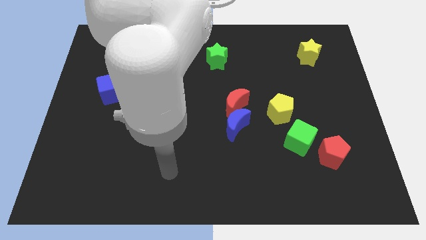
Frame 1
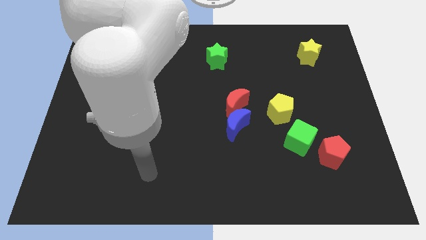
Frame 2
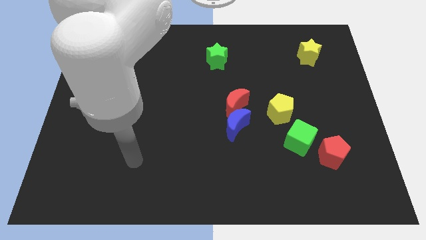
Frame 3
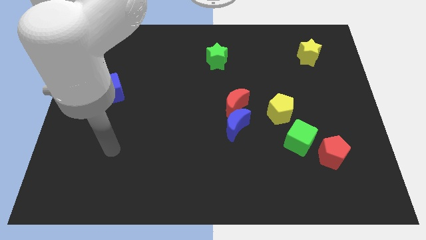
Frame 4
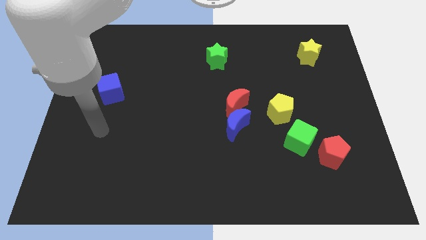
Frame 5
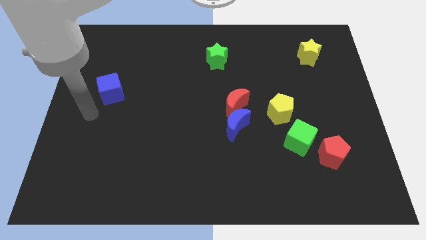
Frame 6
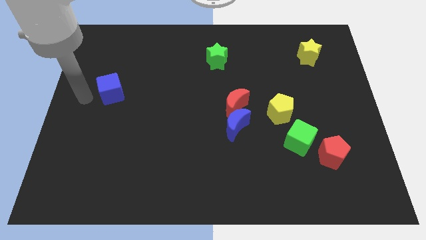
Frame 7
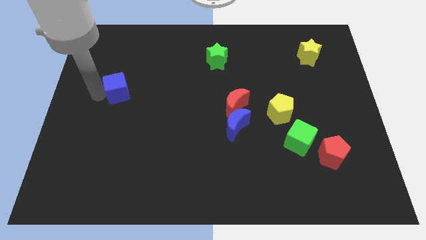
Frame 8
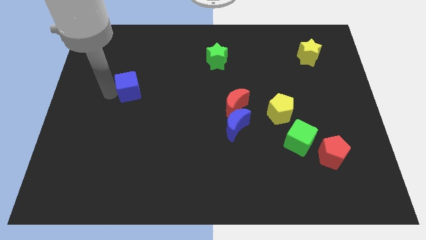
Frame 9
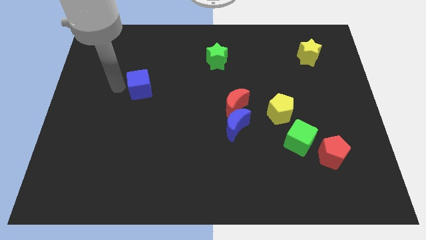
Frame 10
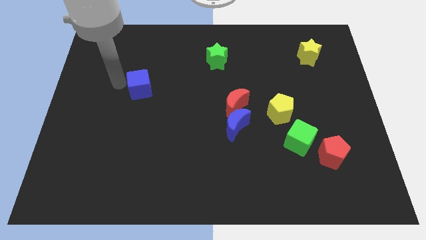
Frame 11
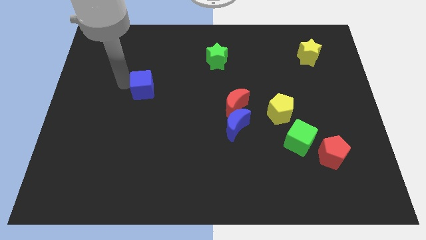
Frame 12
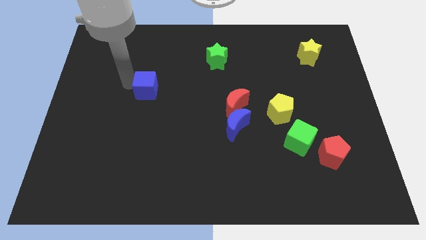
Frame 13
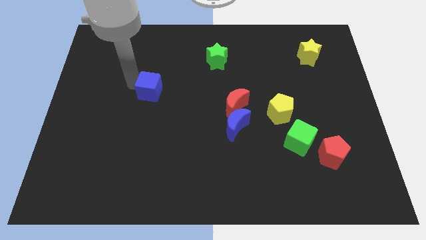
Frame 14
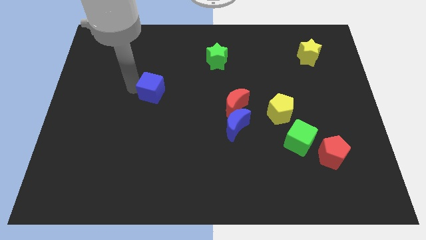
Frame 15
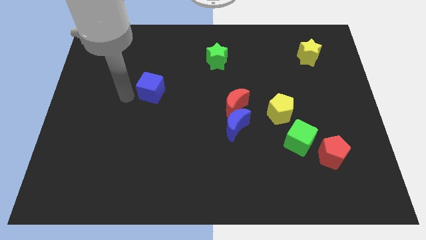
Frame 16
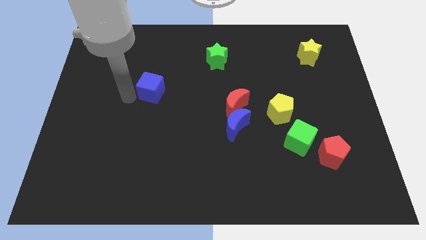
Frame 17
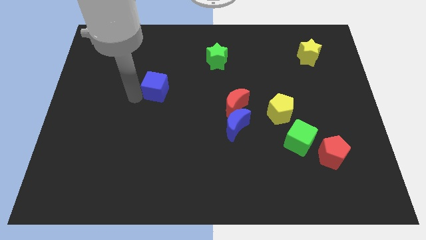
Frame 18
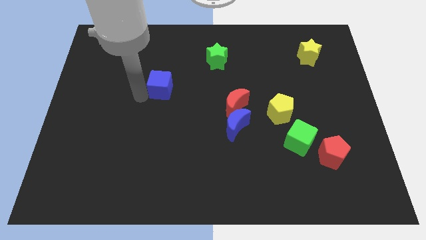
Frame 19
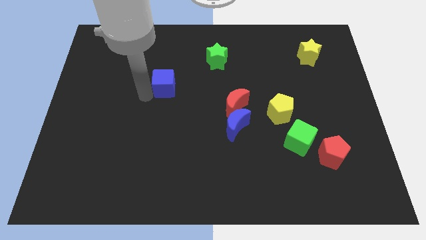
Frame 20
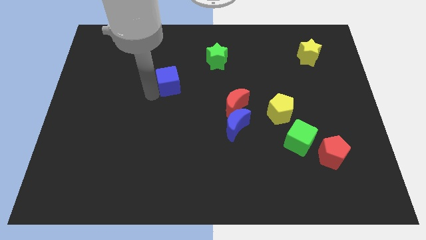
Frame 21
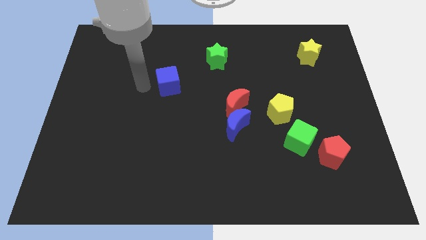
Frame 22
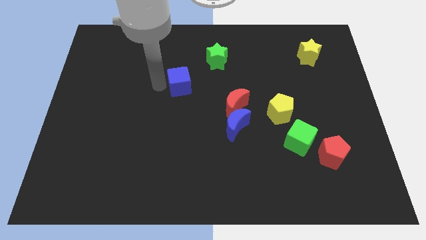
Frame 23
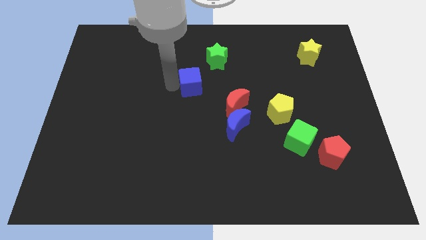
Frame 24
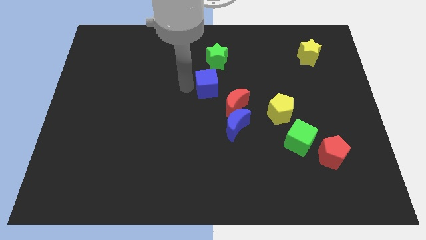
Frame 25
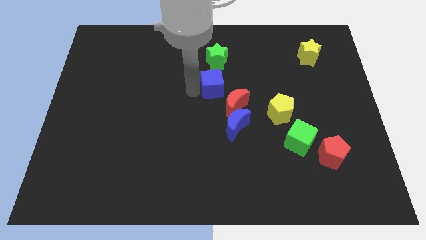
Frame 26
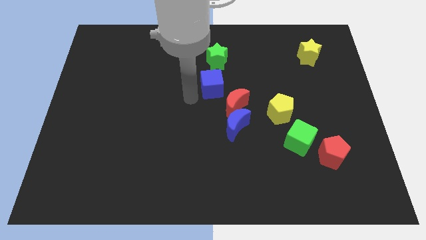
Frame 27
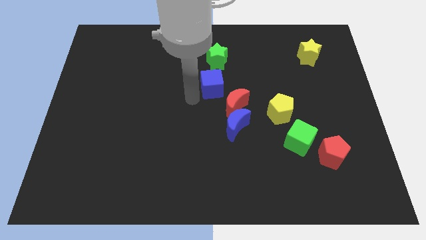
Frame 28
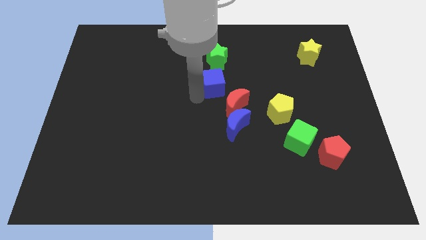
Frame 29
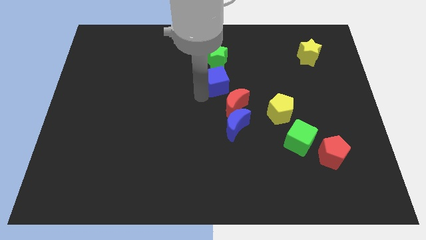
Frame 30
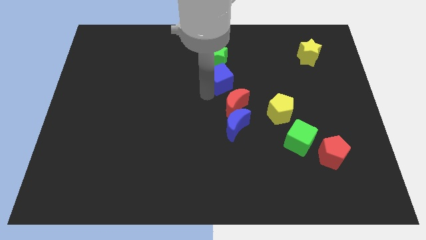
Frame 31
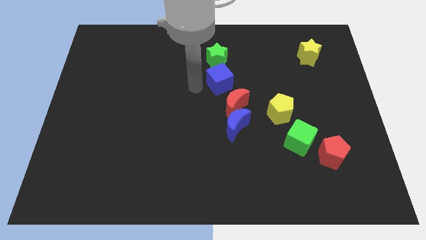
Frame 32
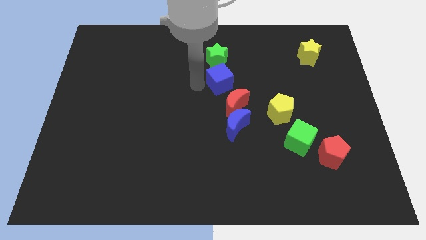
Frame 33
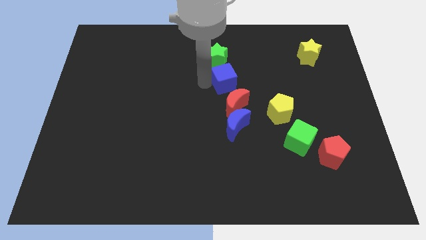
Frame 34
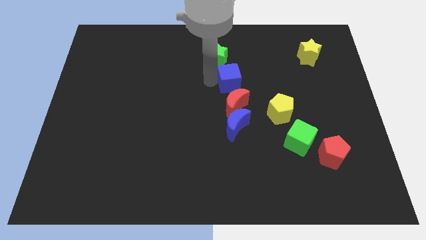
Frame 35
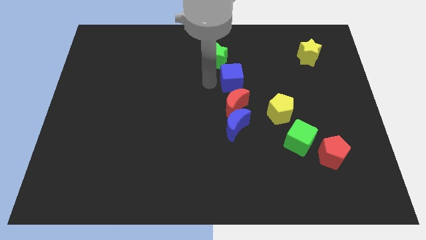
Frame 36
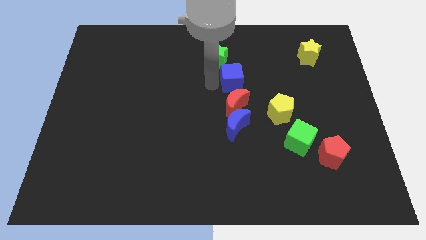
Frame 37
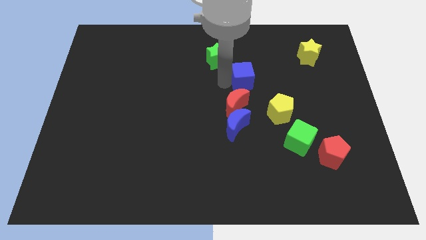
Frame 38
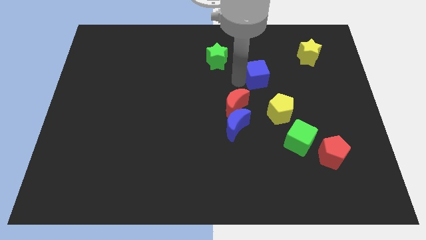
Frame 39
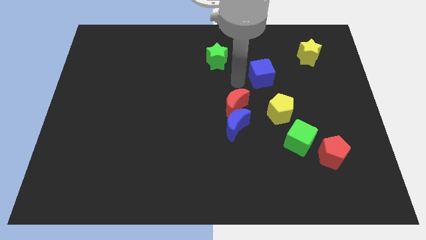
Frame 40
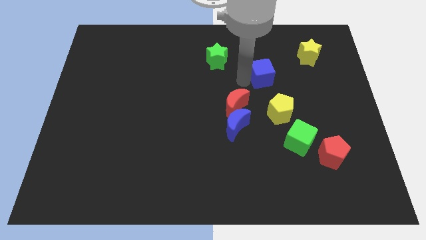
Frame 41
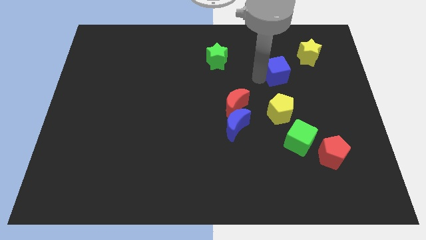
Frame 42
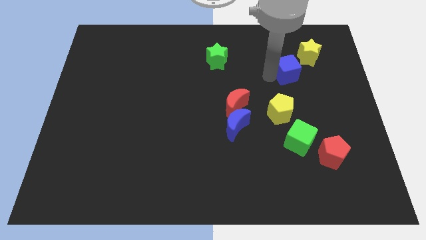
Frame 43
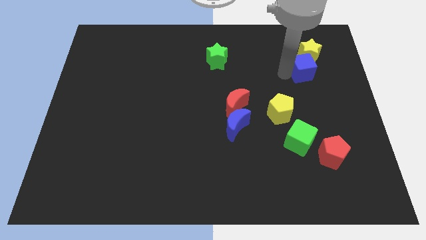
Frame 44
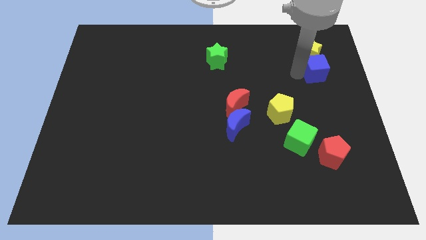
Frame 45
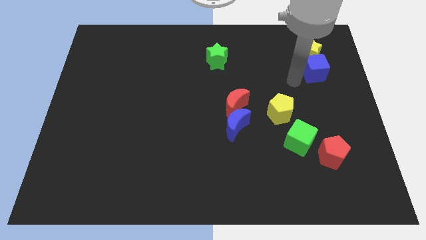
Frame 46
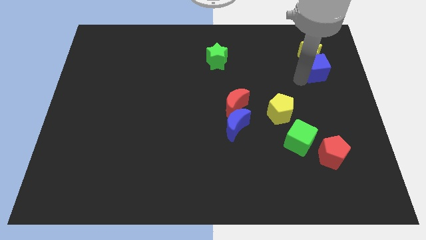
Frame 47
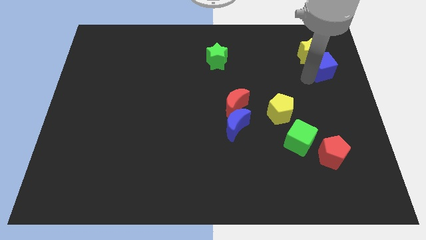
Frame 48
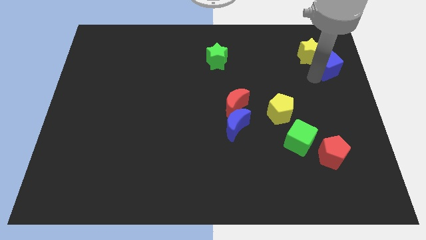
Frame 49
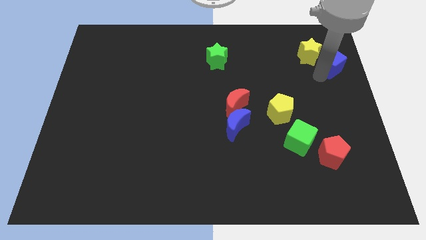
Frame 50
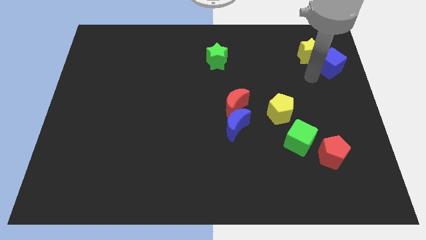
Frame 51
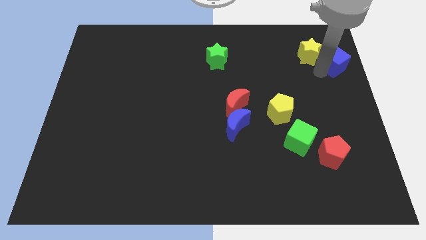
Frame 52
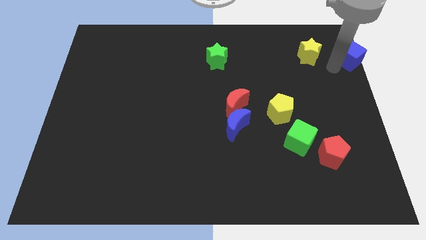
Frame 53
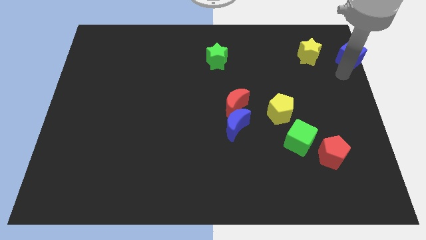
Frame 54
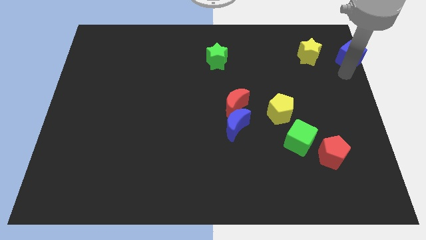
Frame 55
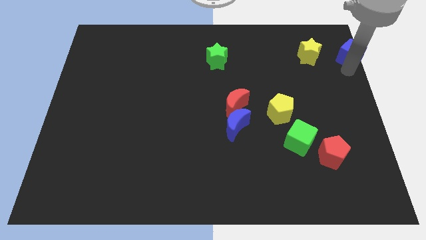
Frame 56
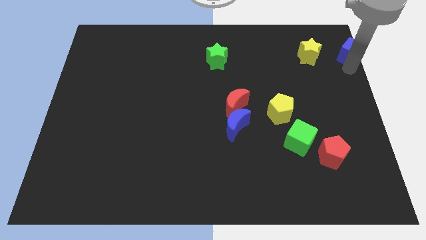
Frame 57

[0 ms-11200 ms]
put the blue cube to the top right corner

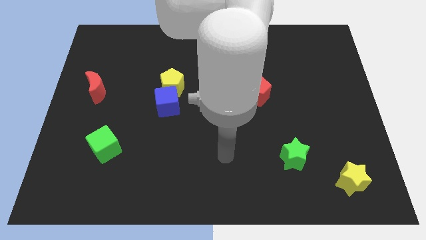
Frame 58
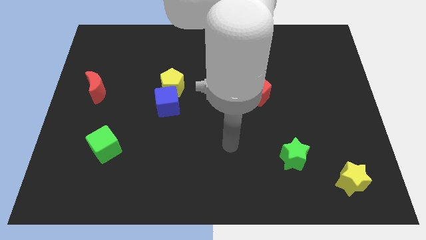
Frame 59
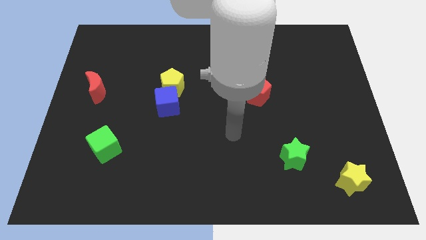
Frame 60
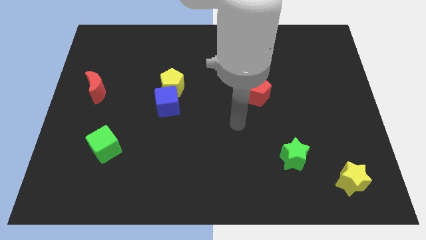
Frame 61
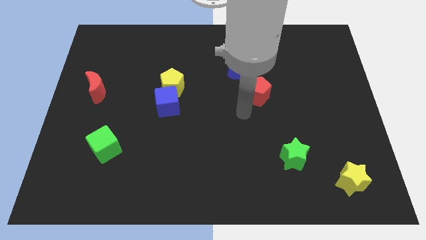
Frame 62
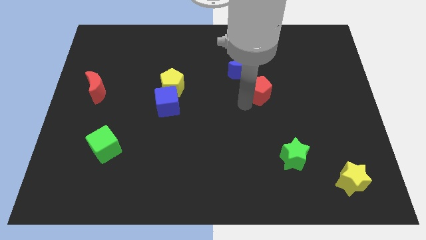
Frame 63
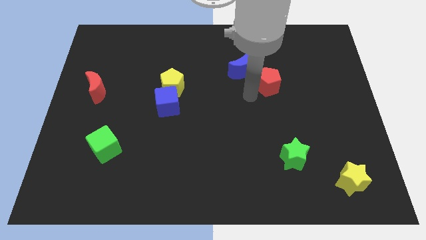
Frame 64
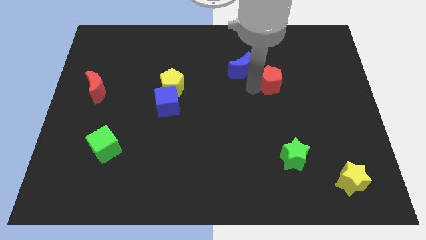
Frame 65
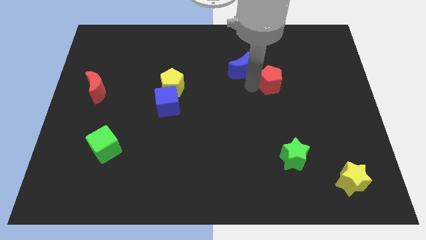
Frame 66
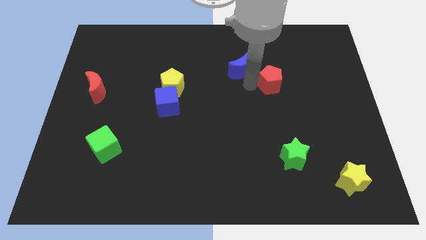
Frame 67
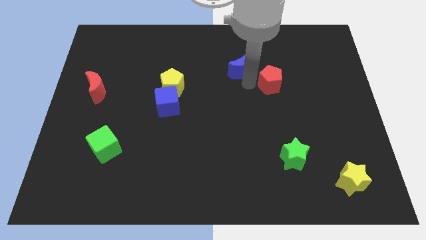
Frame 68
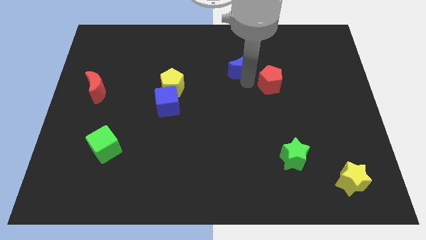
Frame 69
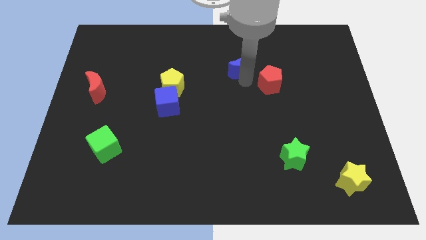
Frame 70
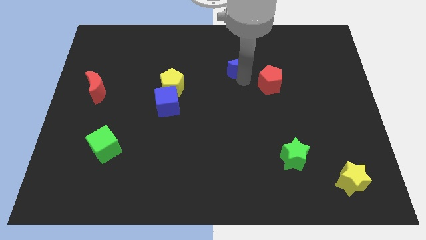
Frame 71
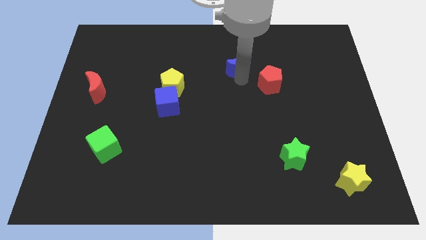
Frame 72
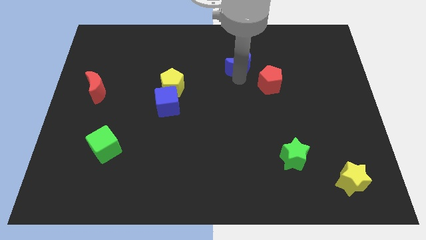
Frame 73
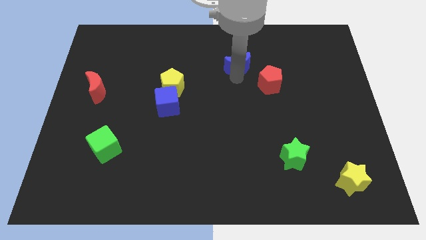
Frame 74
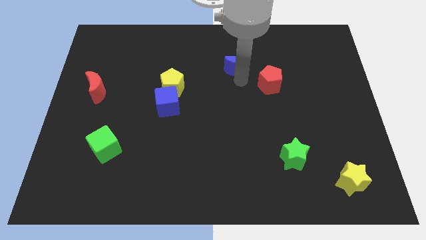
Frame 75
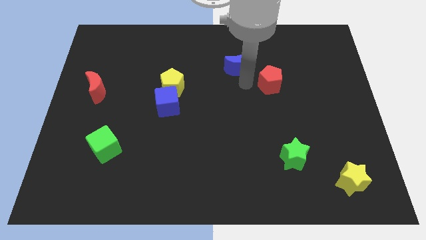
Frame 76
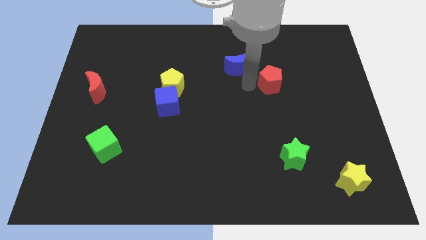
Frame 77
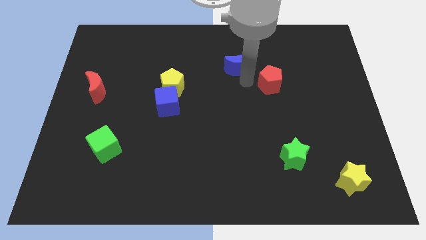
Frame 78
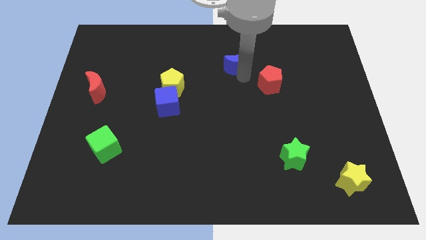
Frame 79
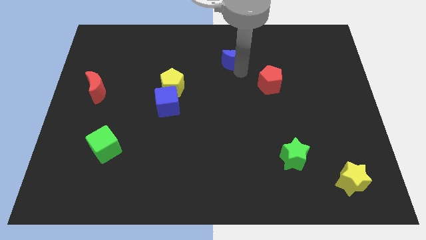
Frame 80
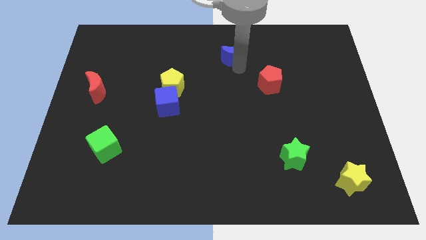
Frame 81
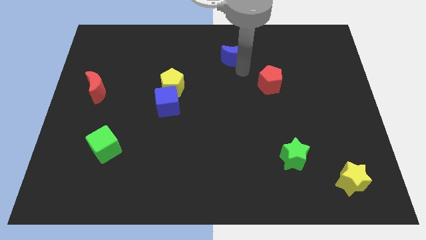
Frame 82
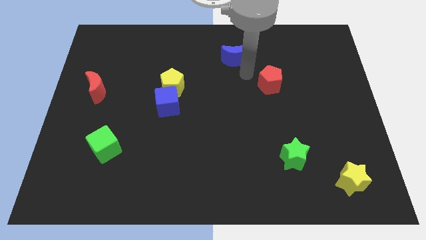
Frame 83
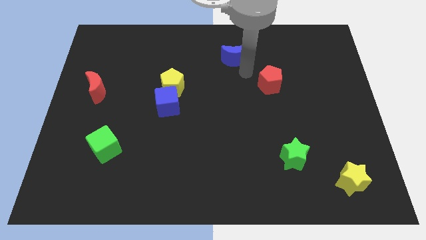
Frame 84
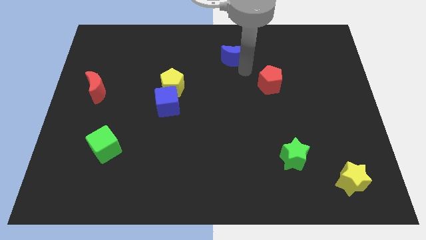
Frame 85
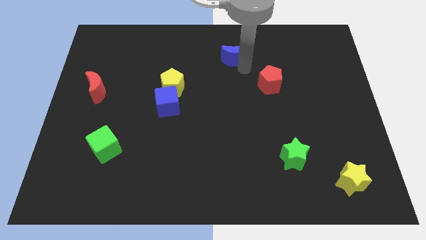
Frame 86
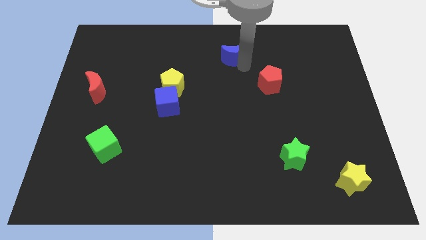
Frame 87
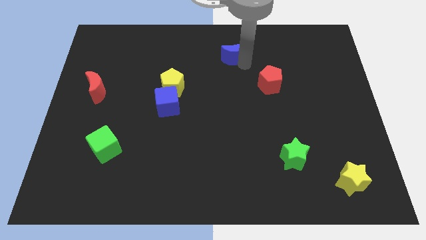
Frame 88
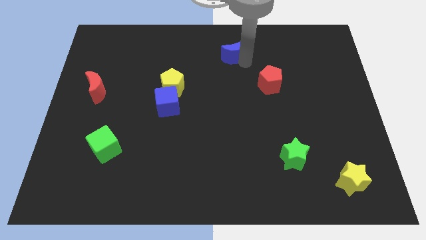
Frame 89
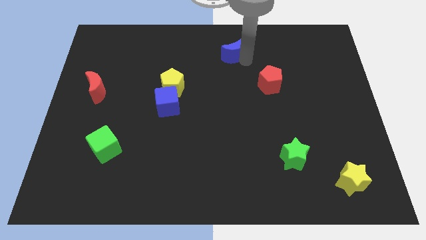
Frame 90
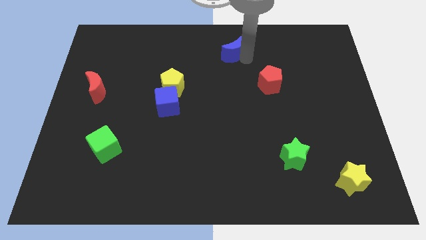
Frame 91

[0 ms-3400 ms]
slide the blue moon to the towards your base
